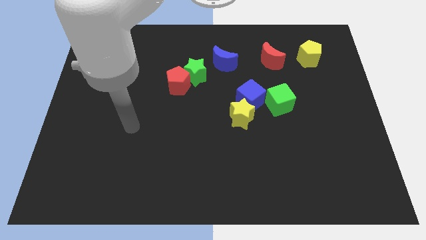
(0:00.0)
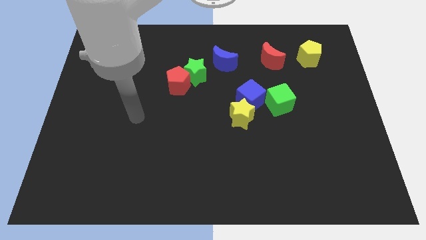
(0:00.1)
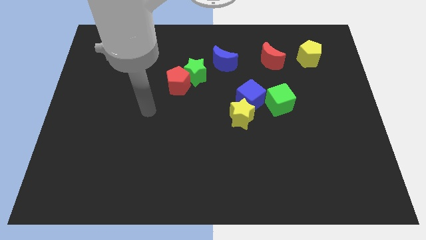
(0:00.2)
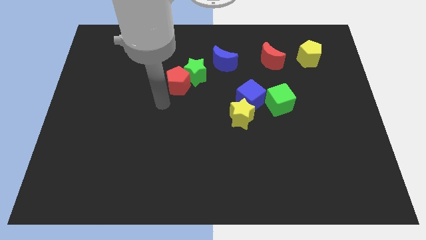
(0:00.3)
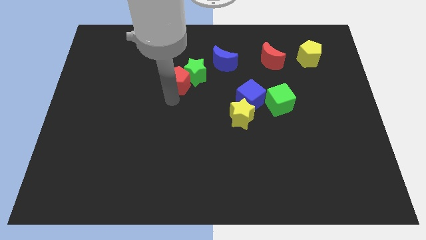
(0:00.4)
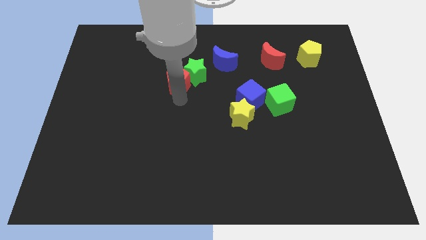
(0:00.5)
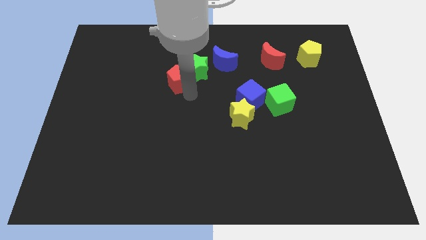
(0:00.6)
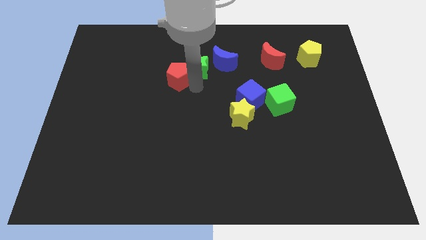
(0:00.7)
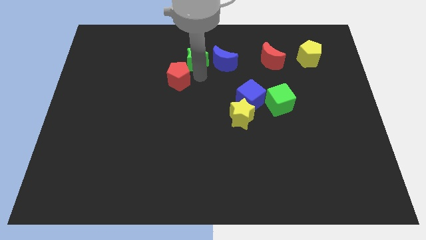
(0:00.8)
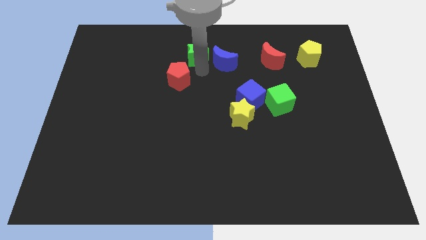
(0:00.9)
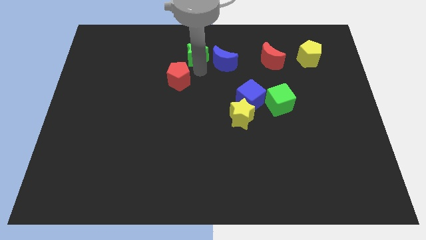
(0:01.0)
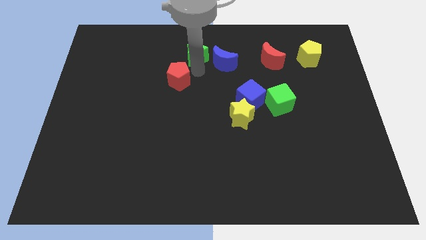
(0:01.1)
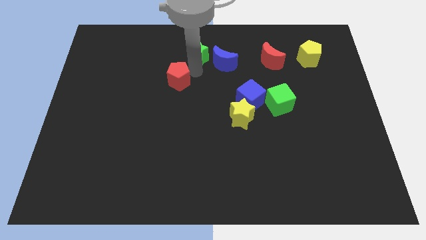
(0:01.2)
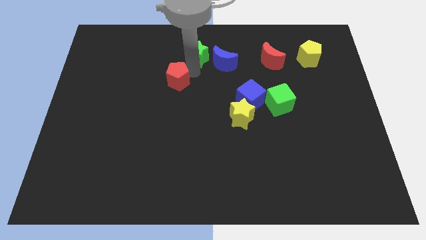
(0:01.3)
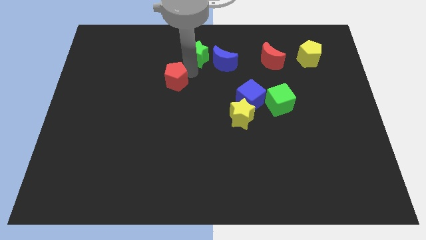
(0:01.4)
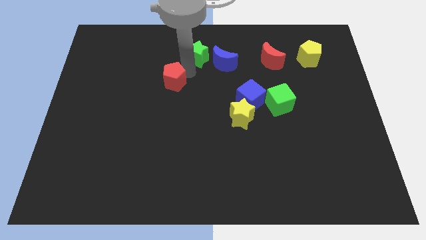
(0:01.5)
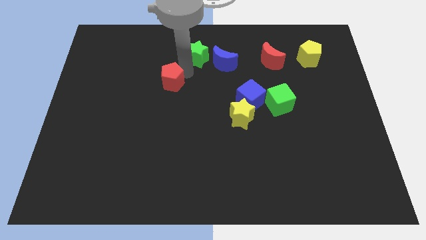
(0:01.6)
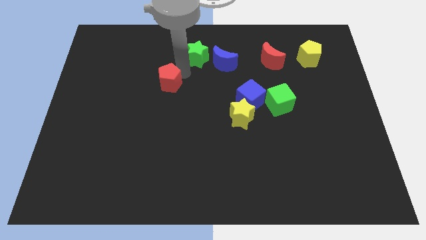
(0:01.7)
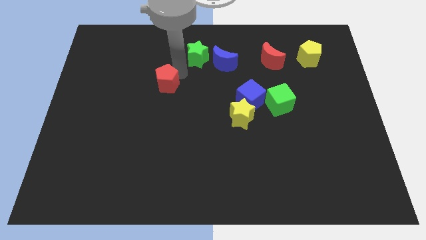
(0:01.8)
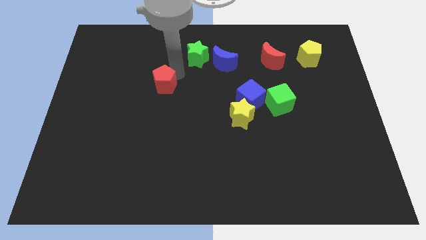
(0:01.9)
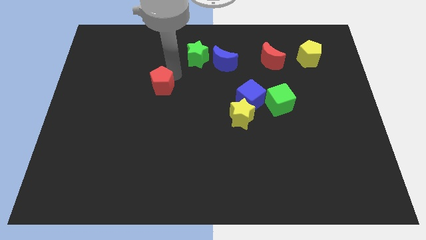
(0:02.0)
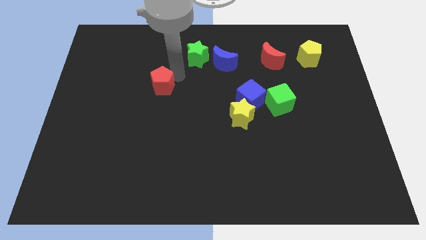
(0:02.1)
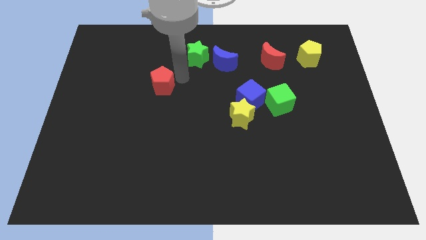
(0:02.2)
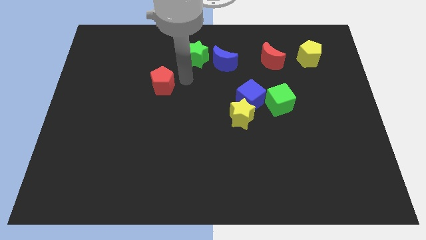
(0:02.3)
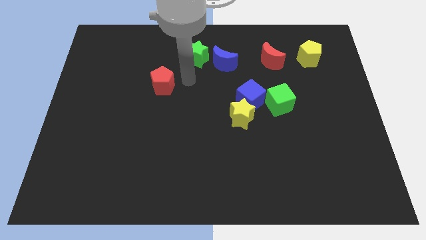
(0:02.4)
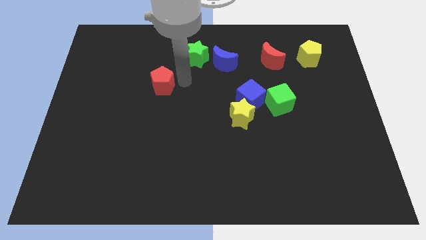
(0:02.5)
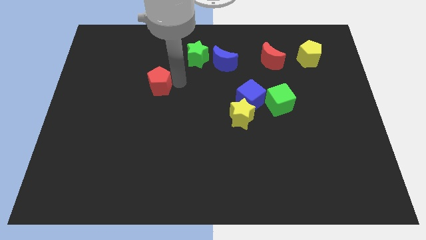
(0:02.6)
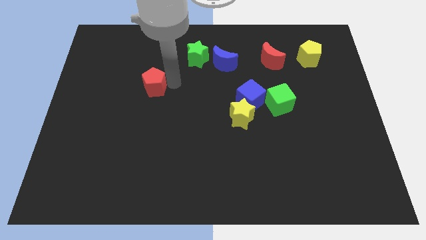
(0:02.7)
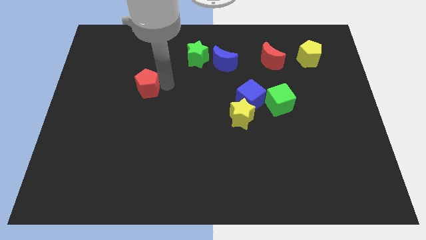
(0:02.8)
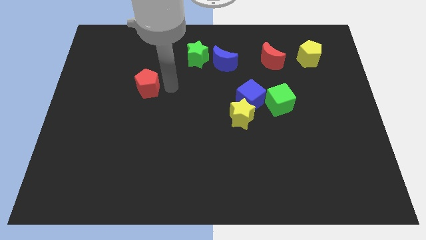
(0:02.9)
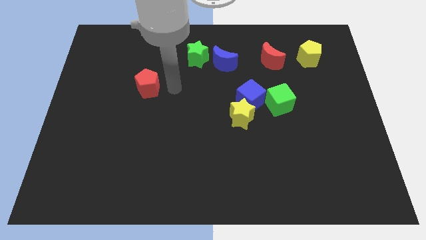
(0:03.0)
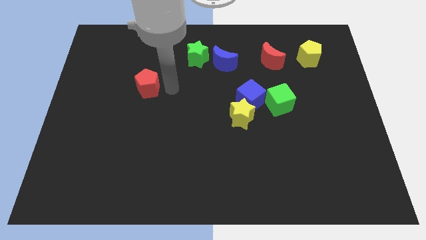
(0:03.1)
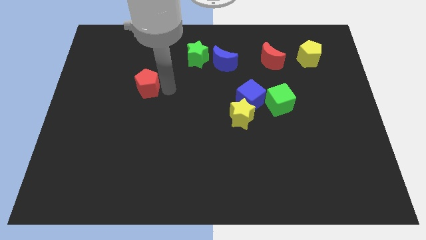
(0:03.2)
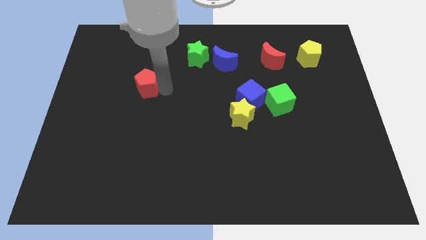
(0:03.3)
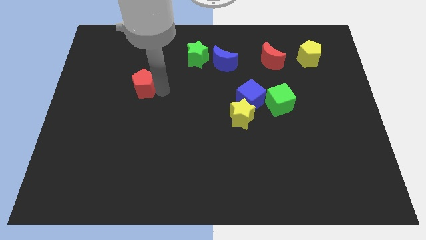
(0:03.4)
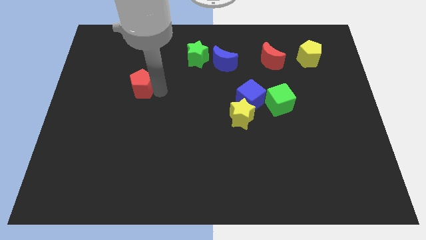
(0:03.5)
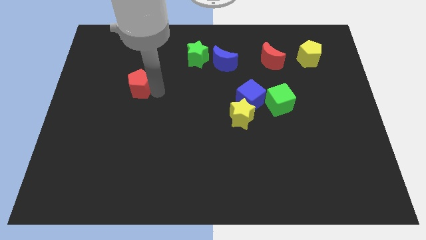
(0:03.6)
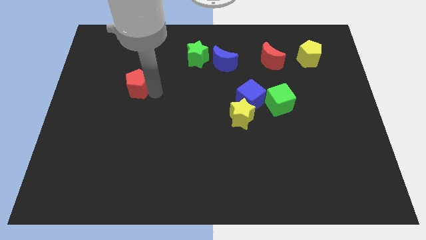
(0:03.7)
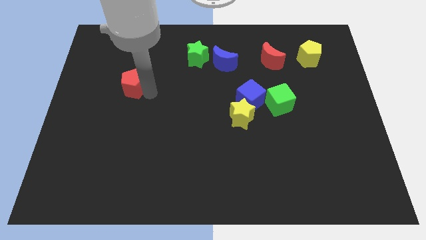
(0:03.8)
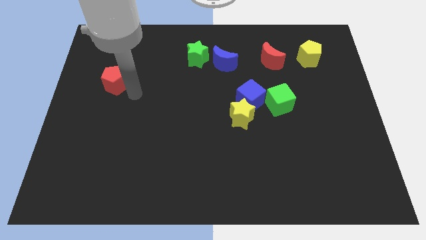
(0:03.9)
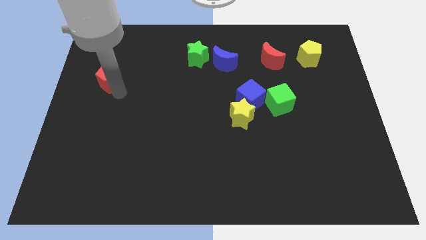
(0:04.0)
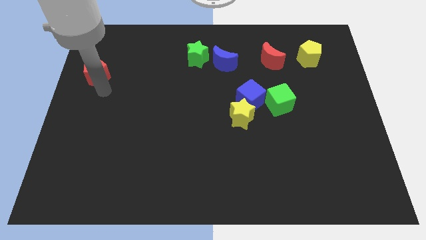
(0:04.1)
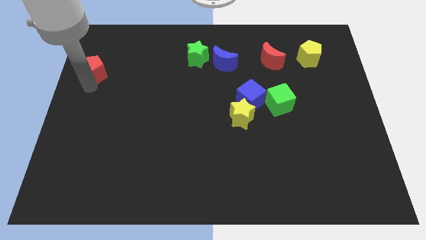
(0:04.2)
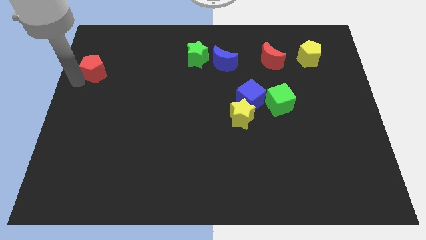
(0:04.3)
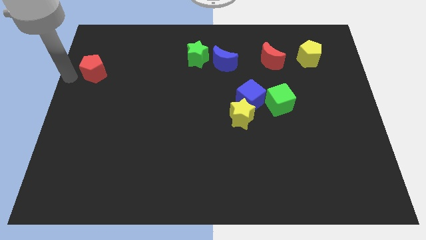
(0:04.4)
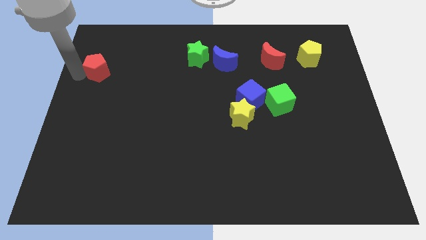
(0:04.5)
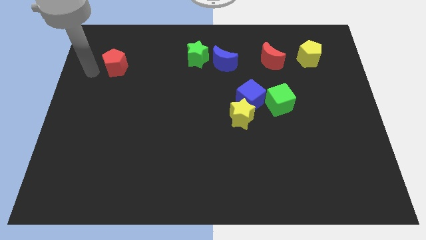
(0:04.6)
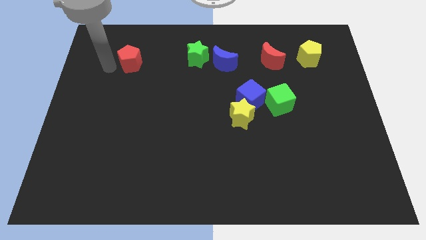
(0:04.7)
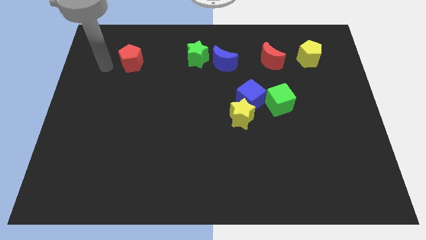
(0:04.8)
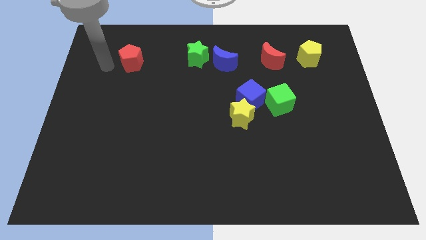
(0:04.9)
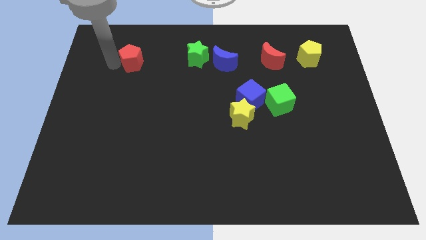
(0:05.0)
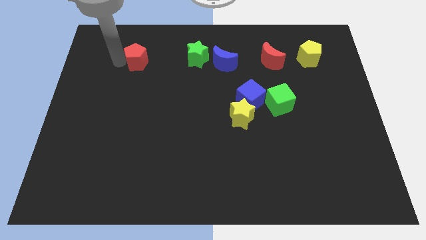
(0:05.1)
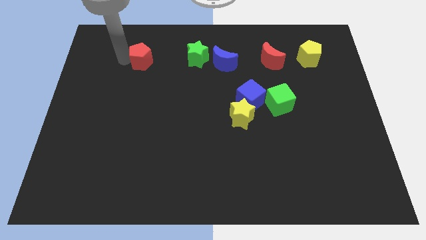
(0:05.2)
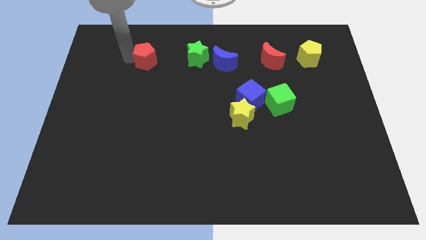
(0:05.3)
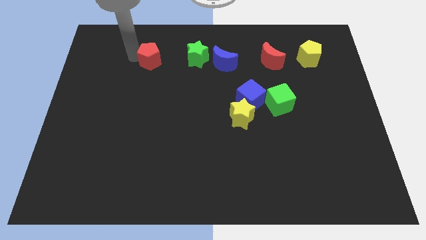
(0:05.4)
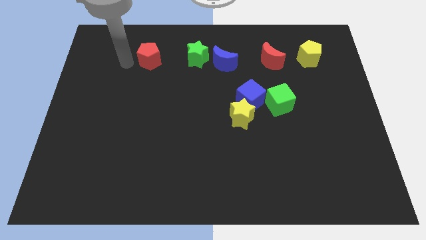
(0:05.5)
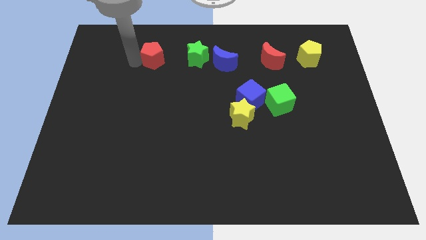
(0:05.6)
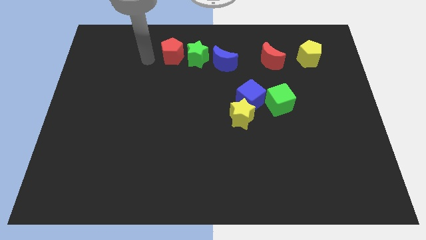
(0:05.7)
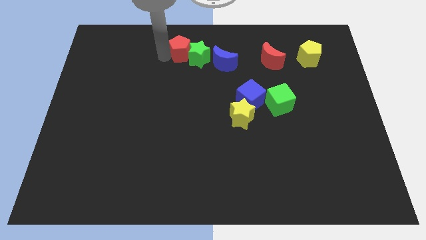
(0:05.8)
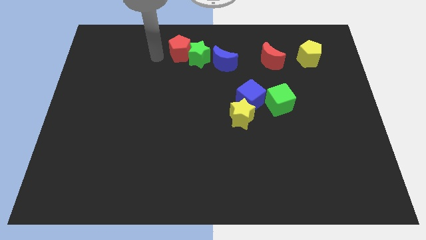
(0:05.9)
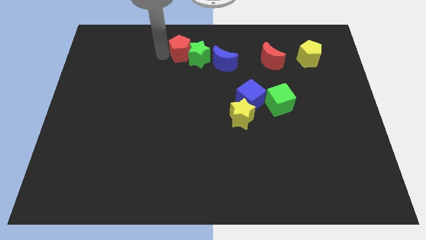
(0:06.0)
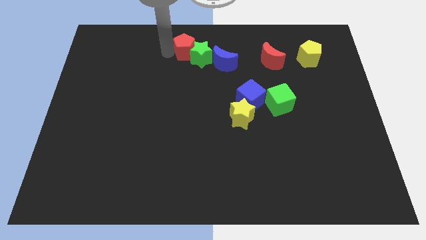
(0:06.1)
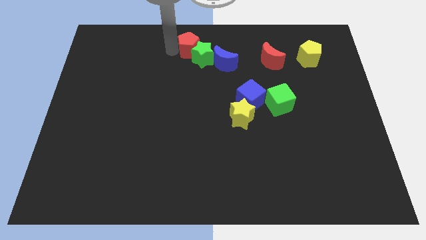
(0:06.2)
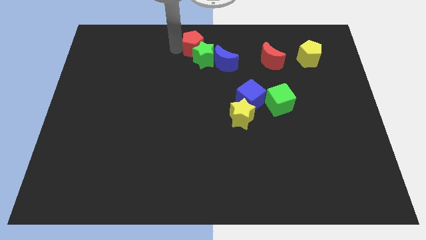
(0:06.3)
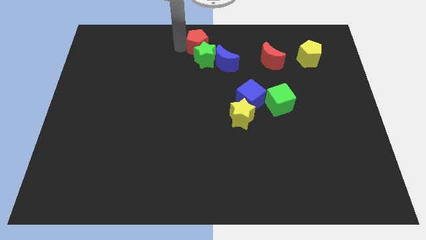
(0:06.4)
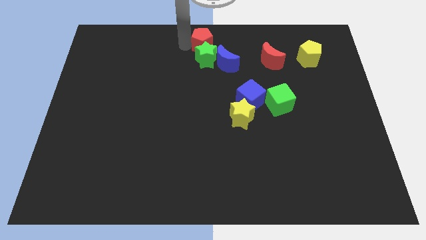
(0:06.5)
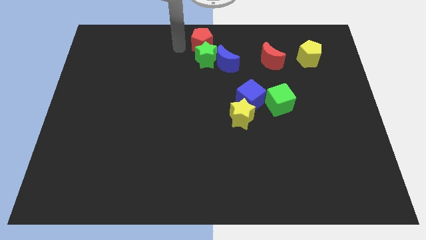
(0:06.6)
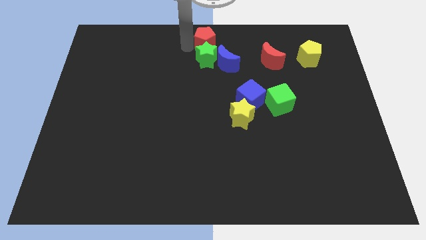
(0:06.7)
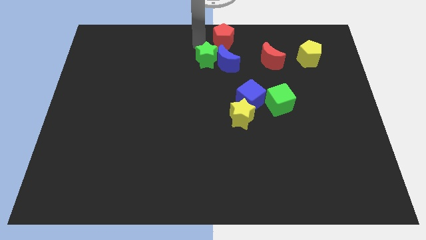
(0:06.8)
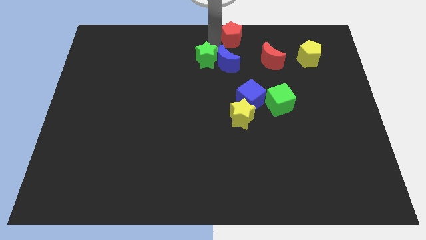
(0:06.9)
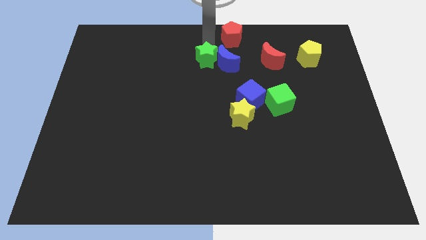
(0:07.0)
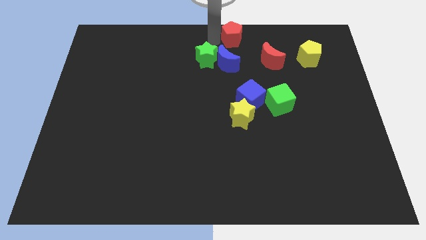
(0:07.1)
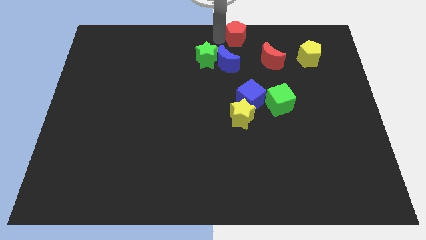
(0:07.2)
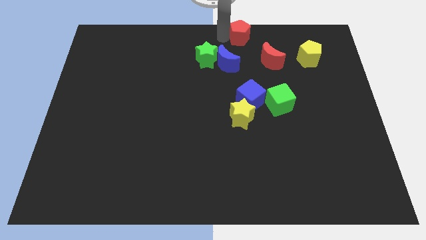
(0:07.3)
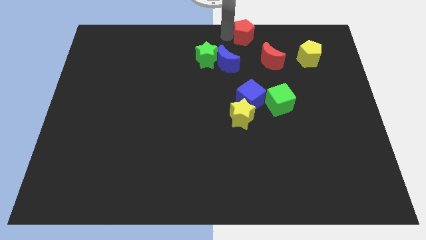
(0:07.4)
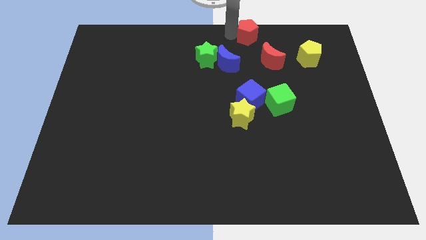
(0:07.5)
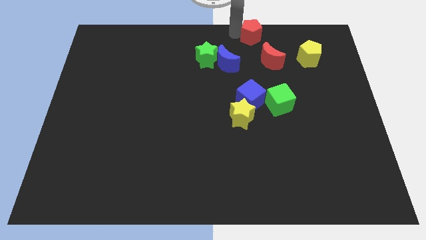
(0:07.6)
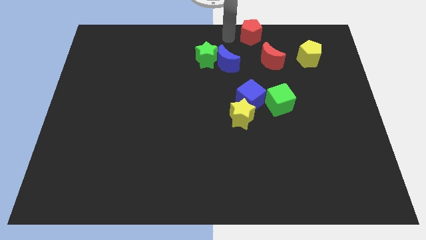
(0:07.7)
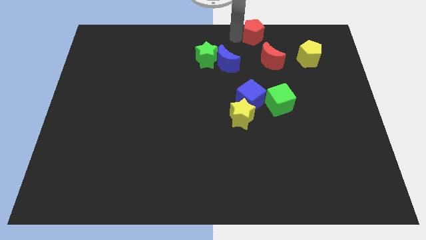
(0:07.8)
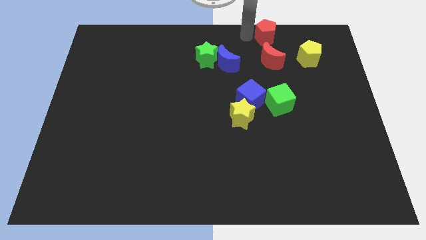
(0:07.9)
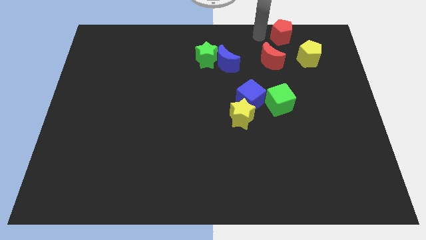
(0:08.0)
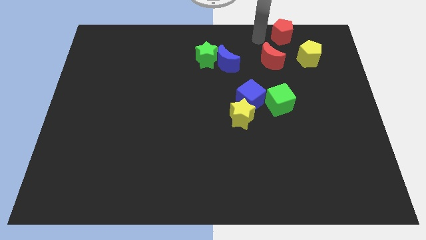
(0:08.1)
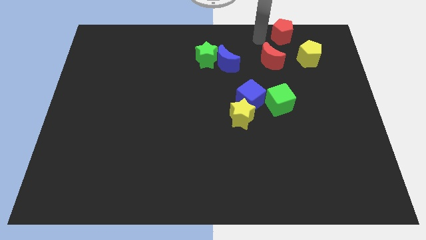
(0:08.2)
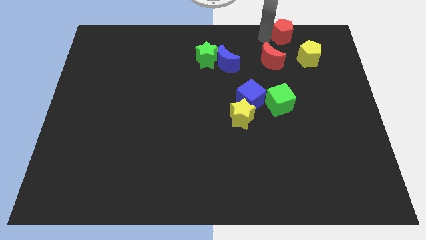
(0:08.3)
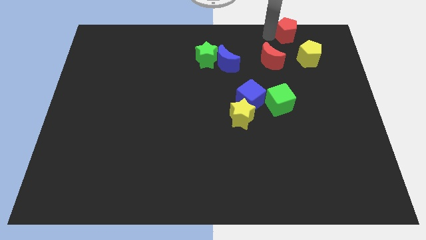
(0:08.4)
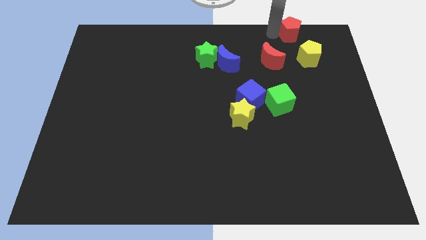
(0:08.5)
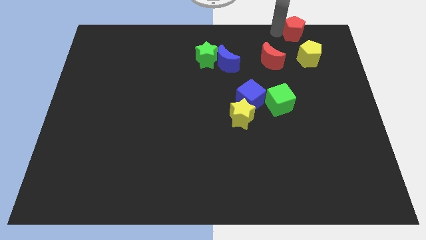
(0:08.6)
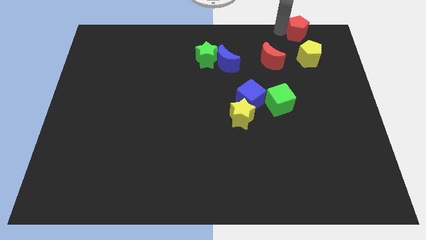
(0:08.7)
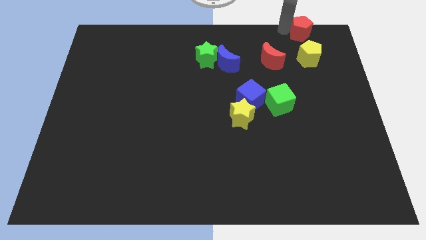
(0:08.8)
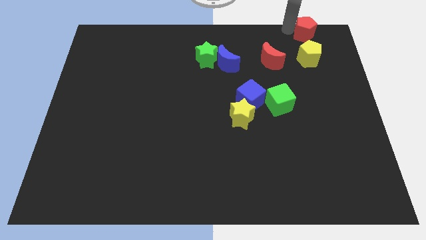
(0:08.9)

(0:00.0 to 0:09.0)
push the red pentagon to the upper right corner
